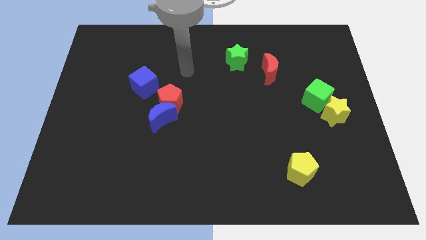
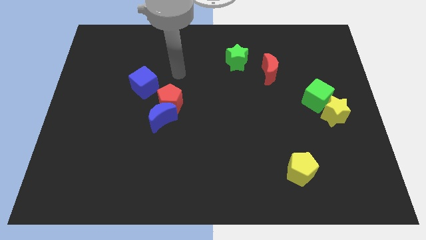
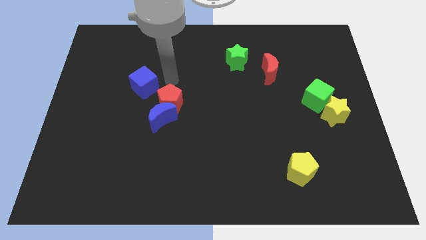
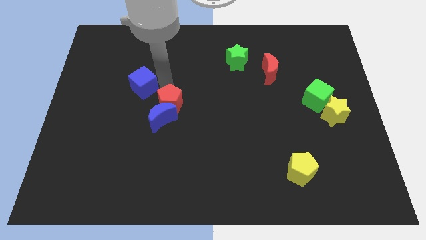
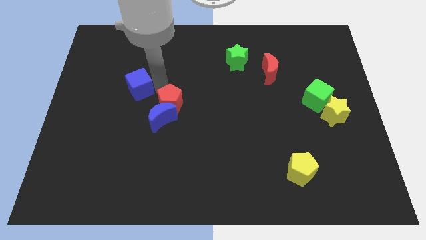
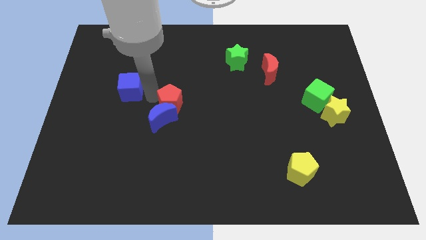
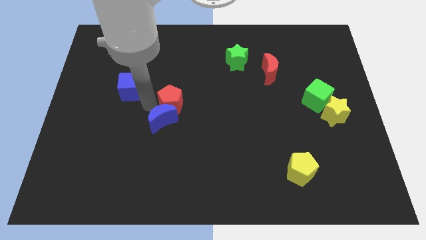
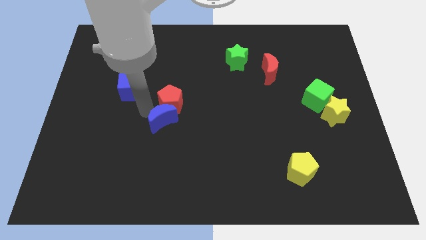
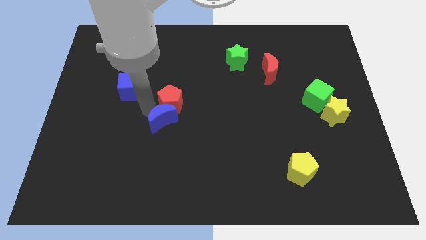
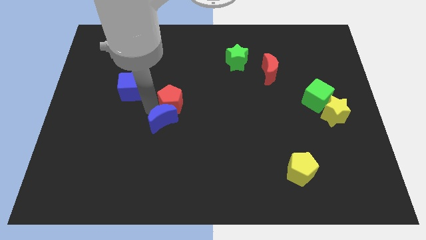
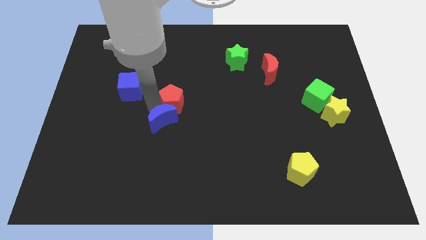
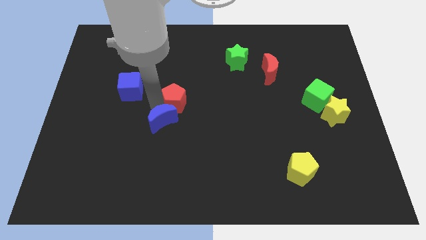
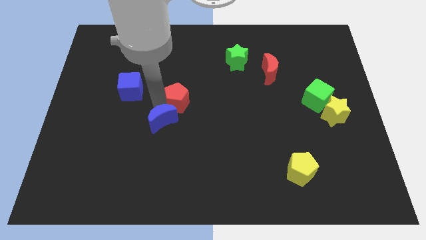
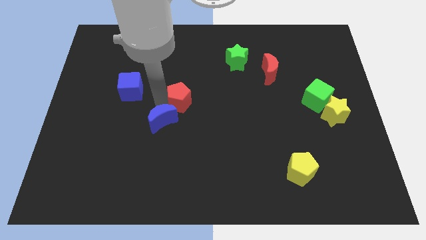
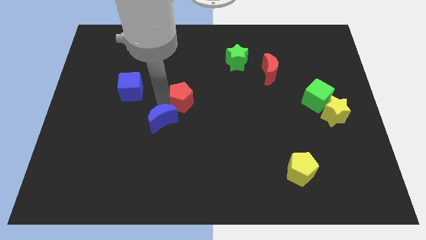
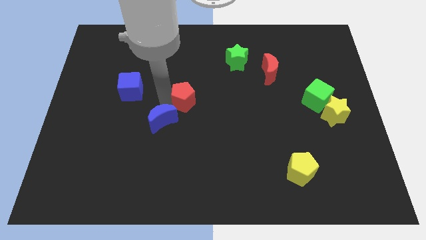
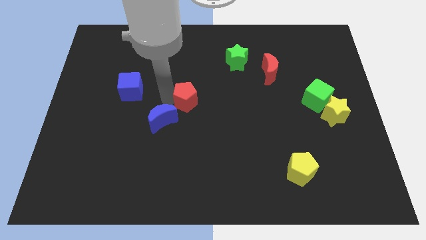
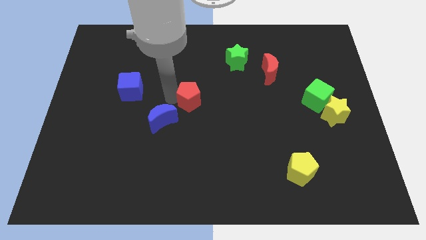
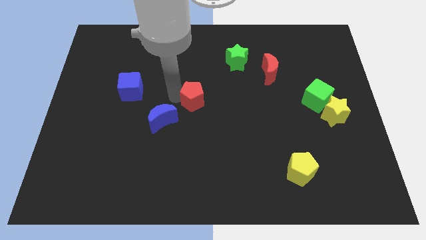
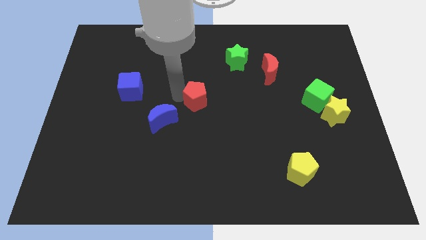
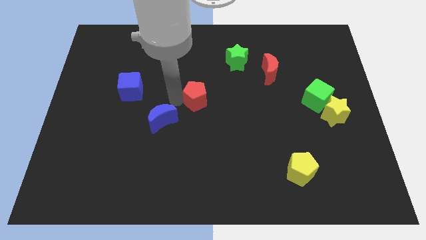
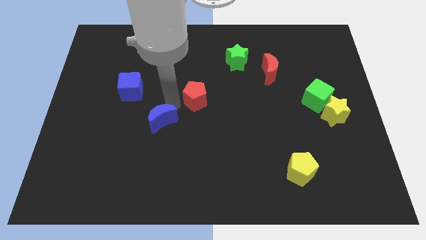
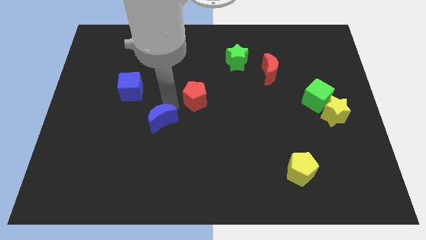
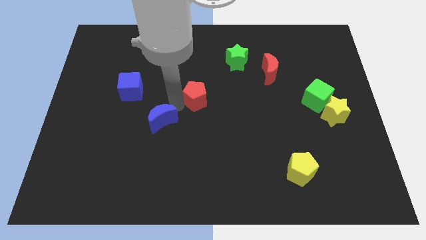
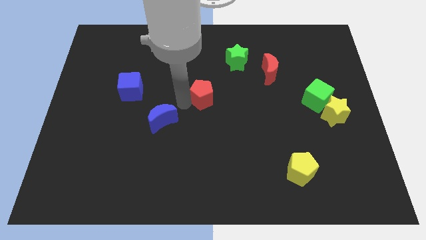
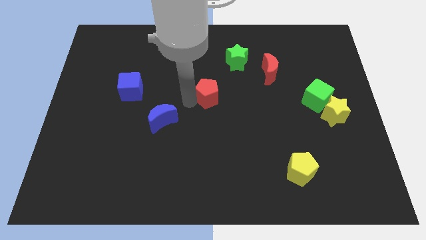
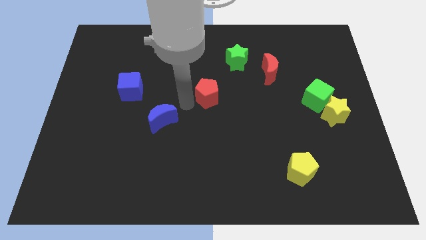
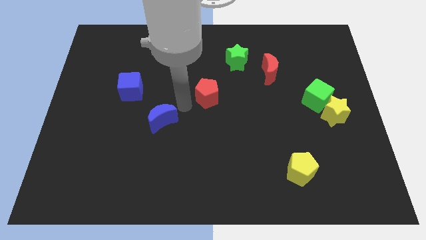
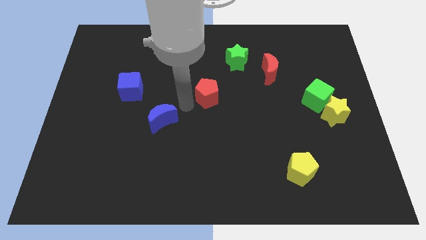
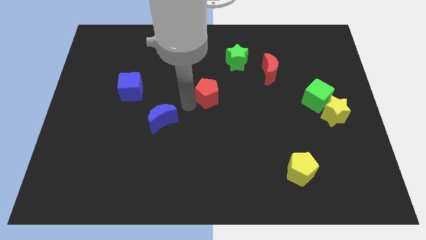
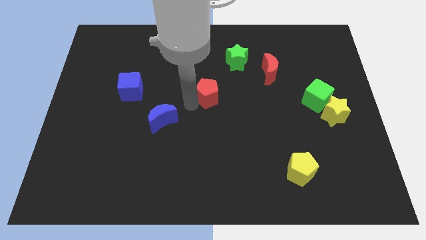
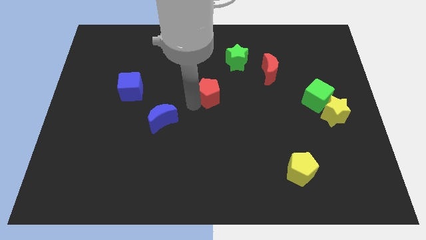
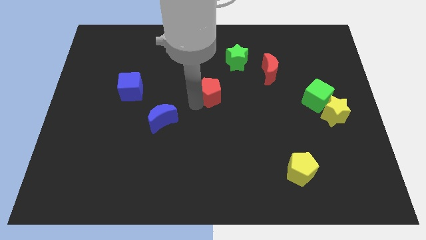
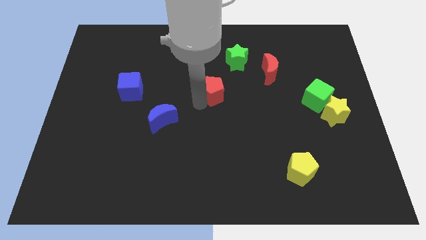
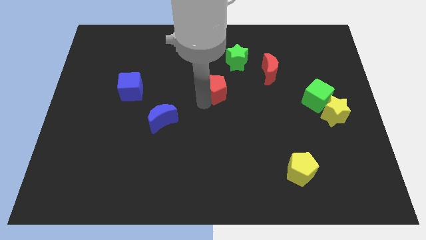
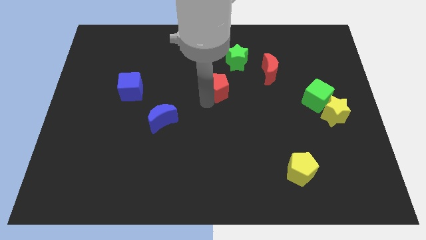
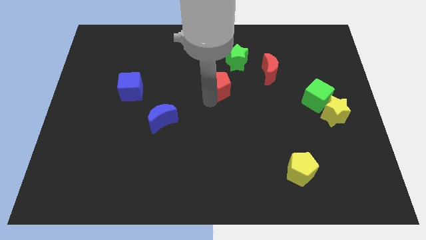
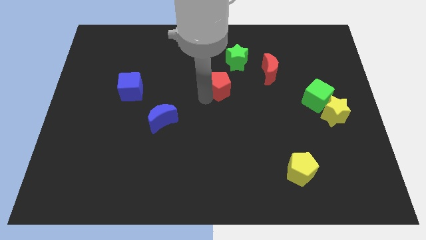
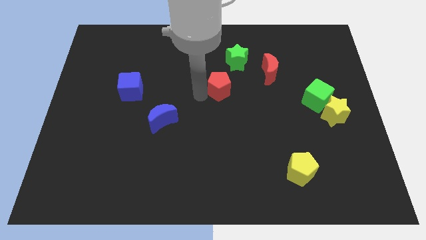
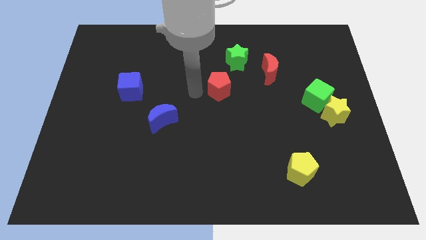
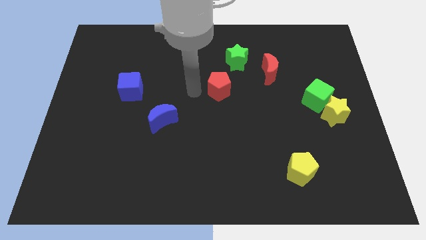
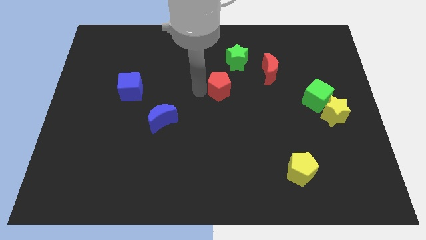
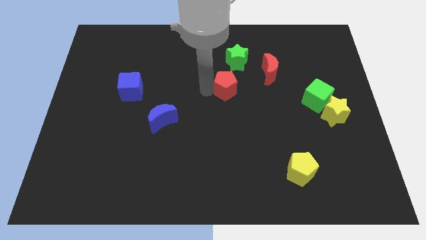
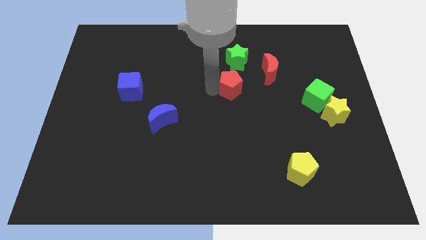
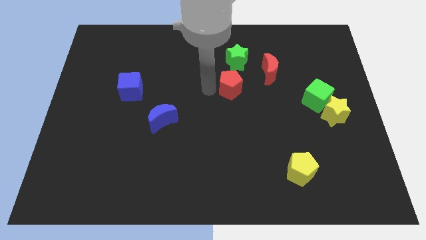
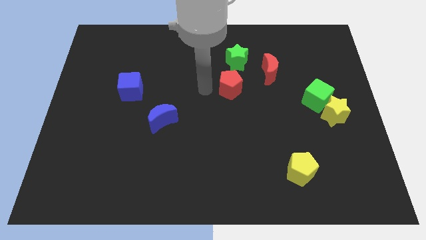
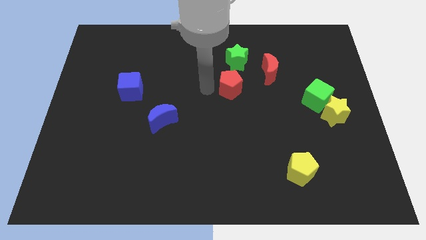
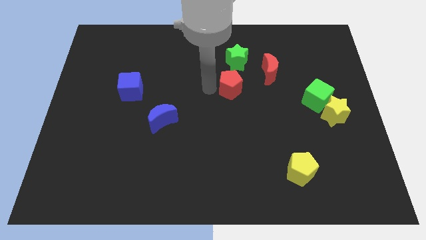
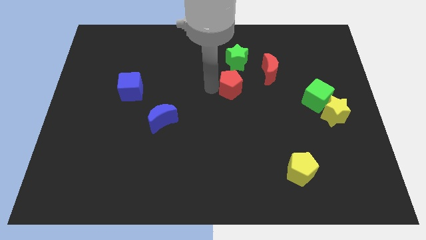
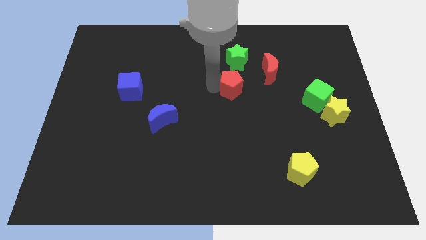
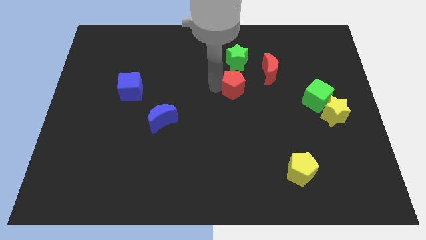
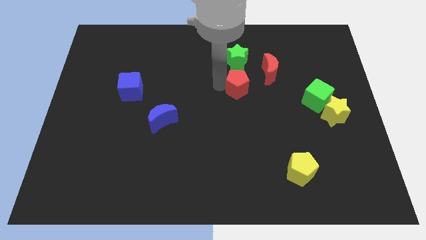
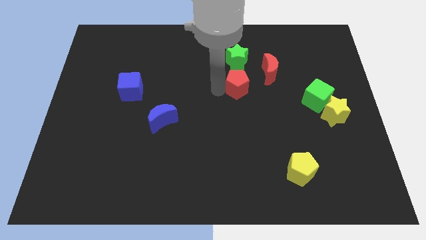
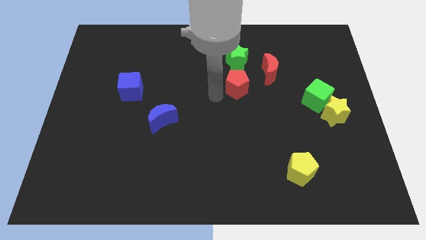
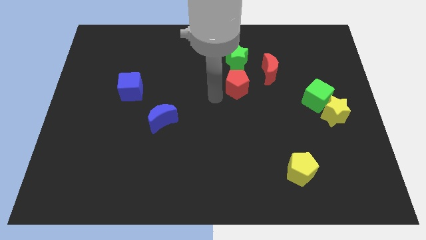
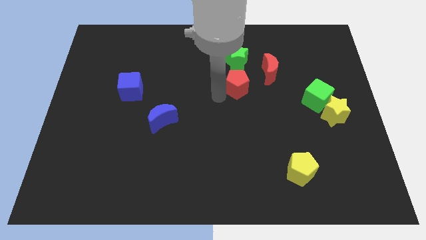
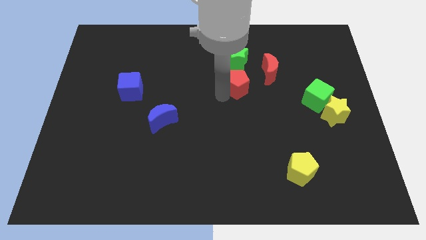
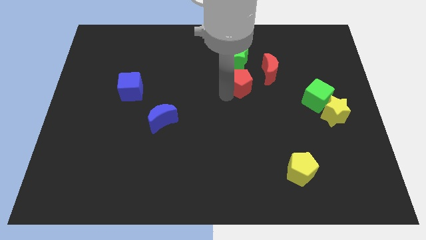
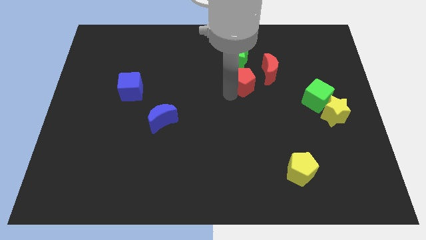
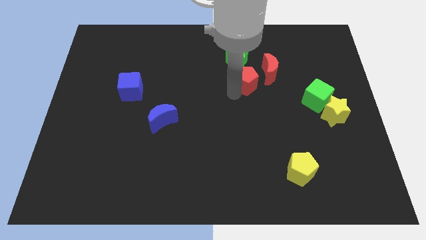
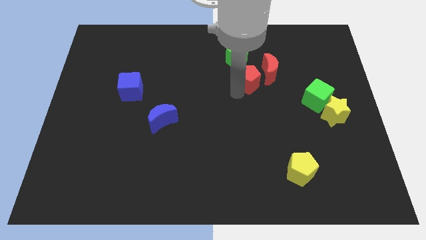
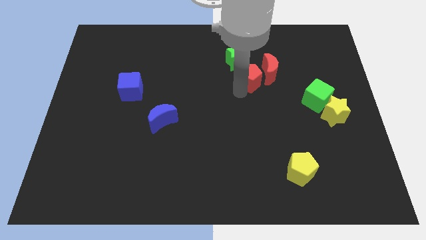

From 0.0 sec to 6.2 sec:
move the red pentagon next to the red moon

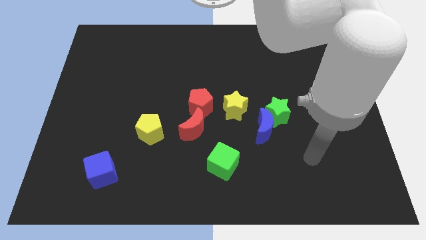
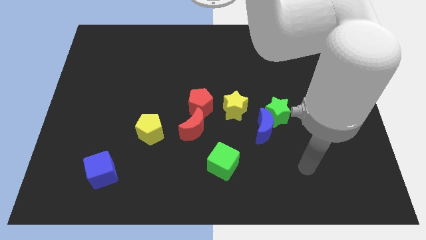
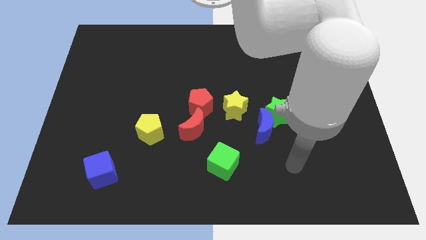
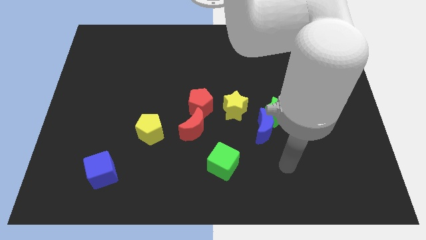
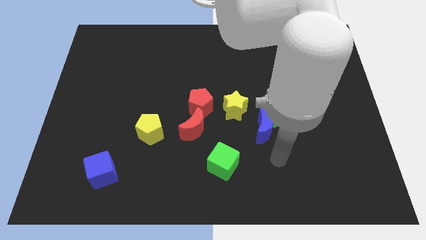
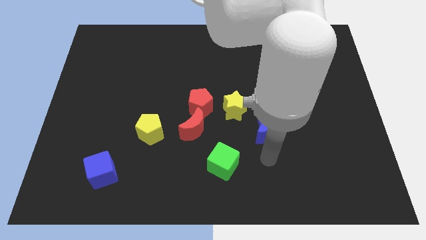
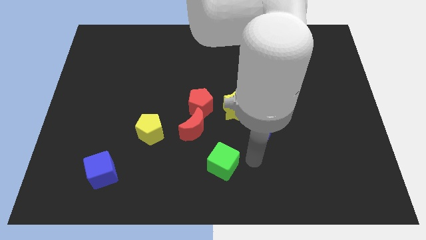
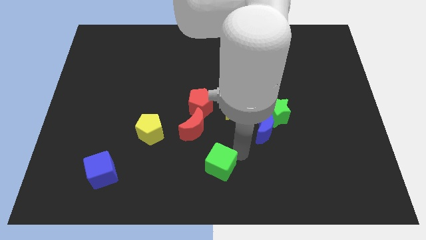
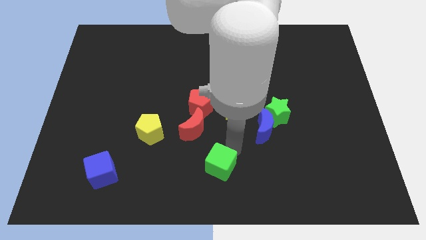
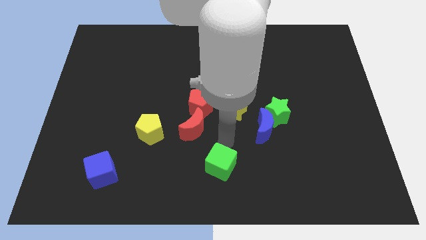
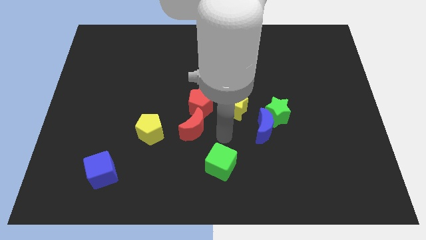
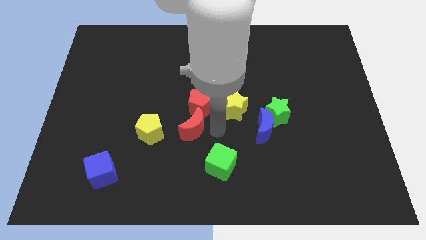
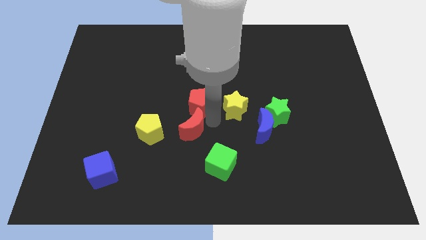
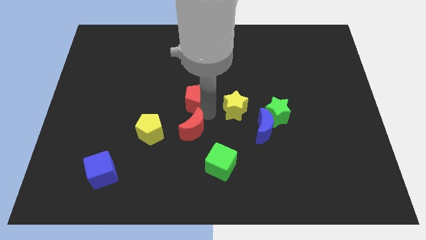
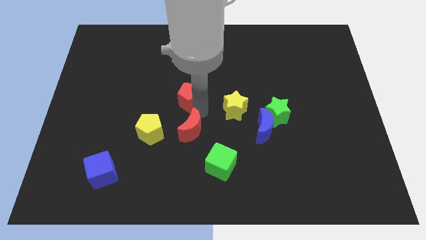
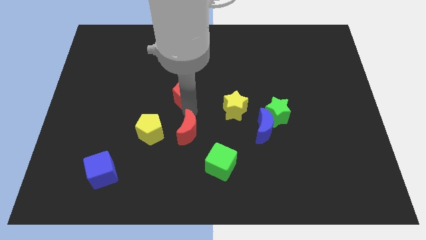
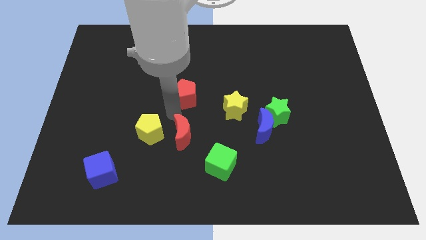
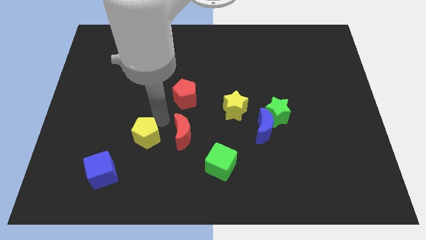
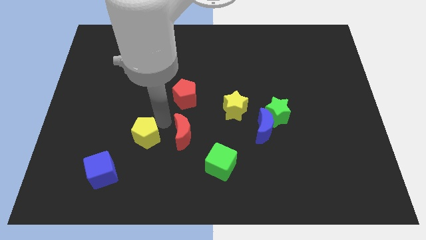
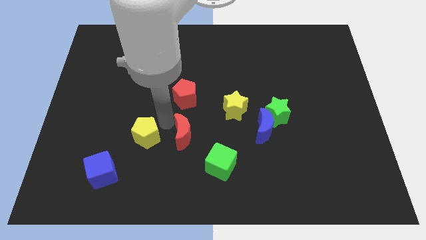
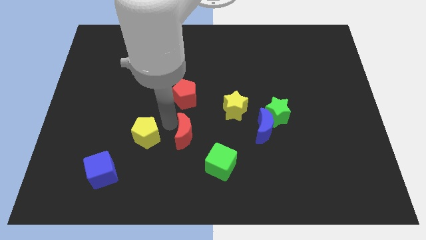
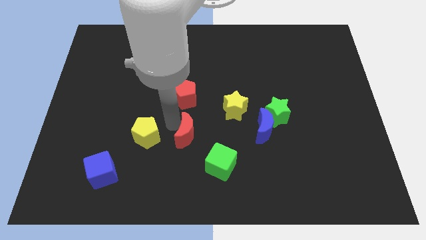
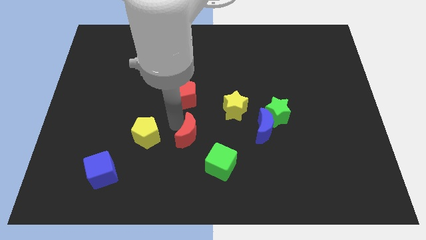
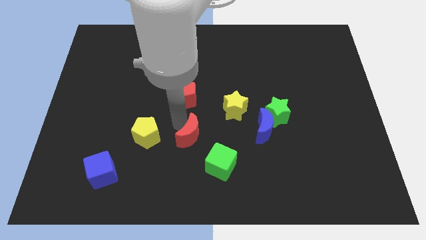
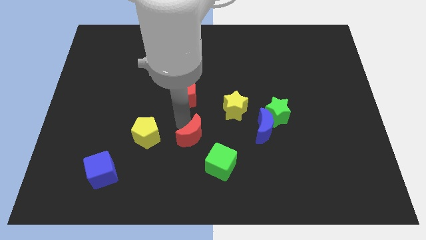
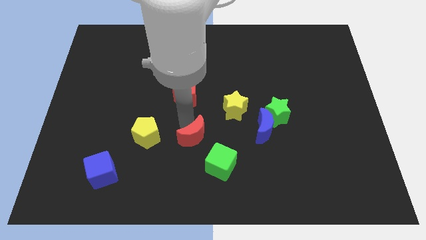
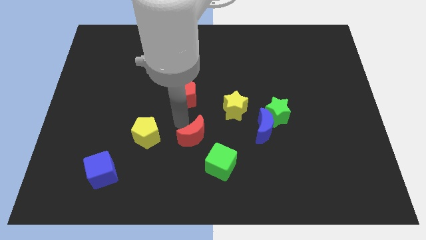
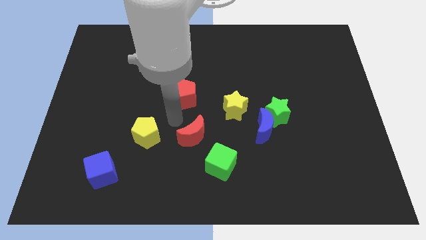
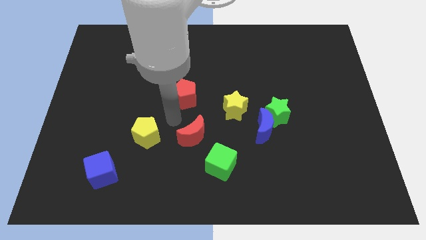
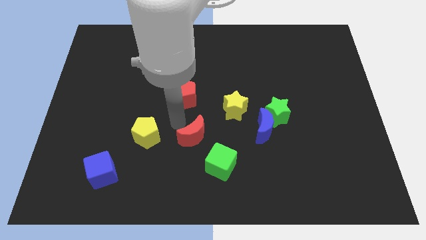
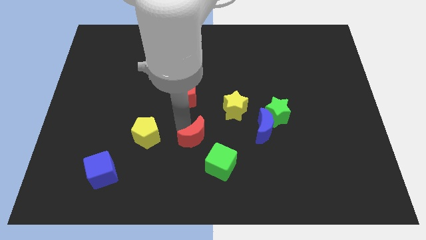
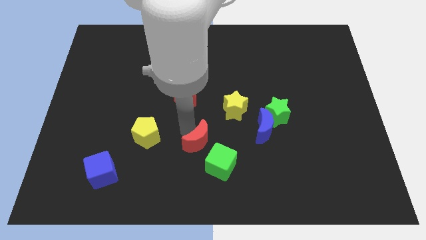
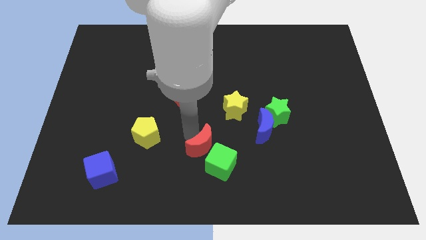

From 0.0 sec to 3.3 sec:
put the red moon towards the green cube
